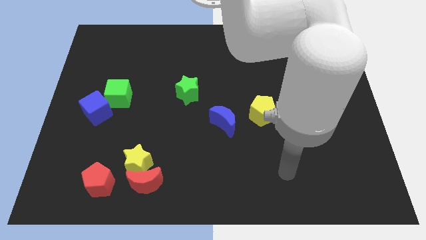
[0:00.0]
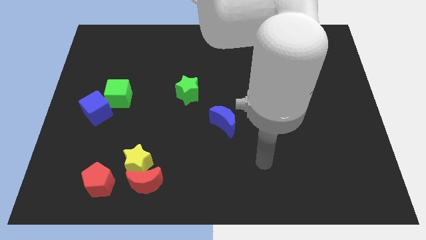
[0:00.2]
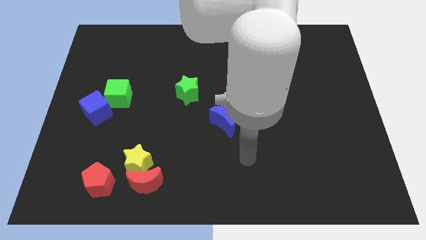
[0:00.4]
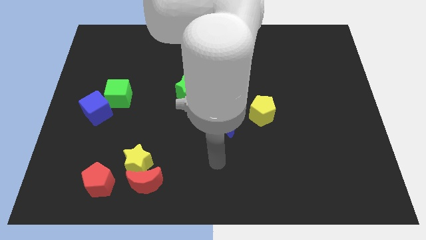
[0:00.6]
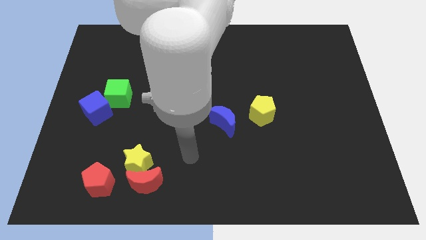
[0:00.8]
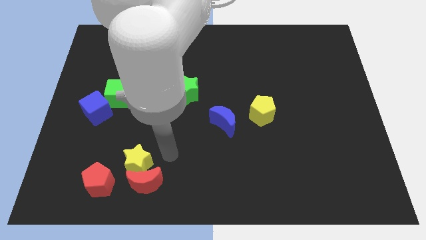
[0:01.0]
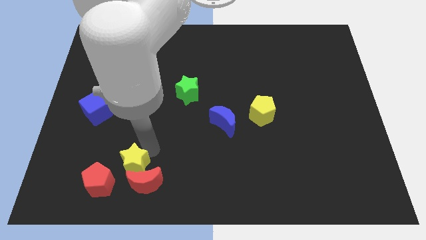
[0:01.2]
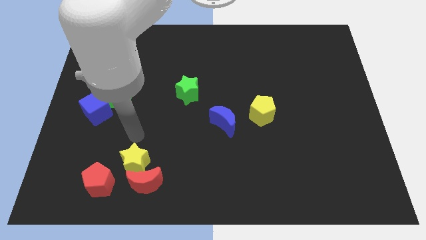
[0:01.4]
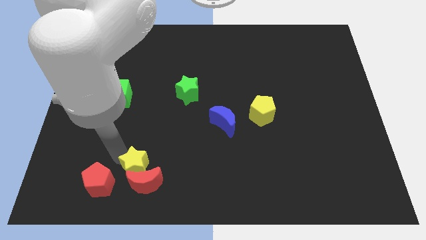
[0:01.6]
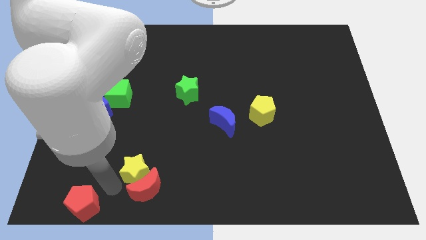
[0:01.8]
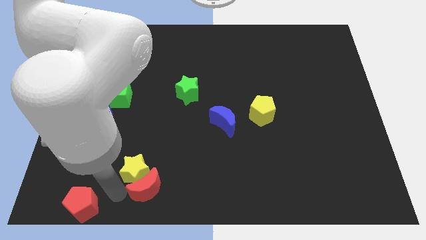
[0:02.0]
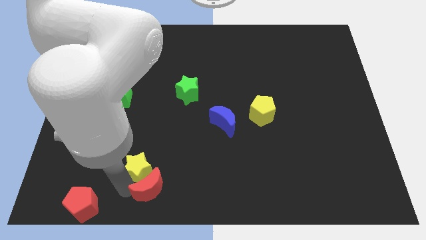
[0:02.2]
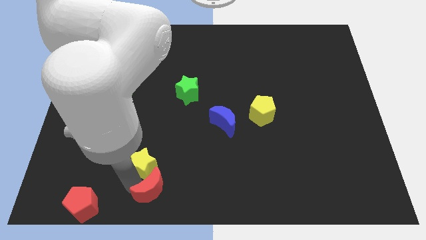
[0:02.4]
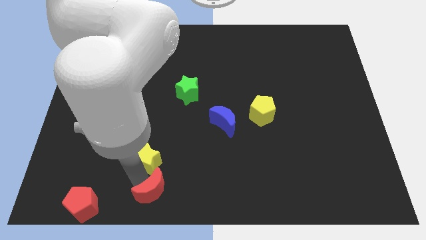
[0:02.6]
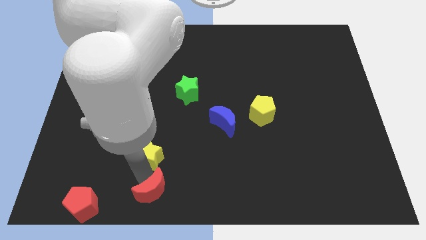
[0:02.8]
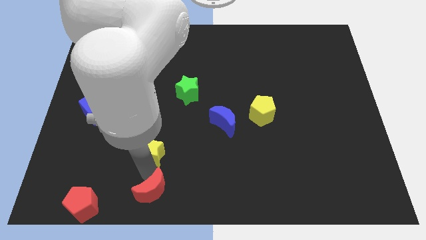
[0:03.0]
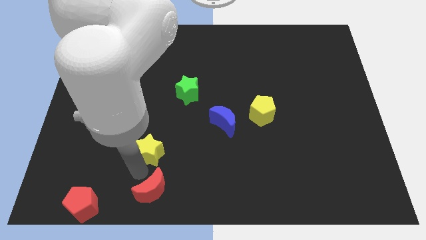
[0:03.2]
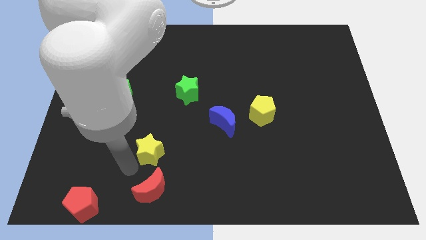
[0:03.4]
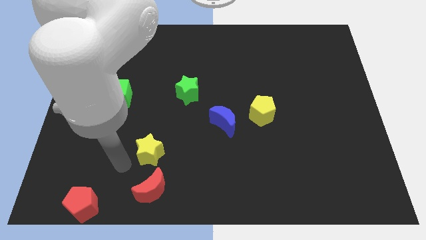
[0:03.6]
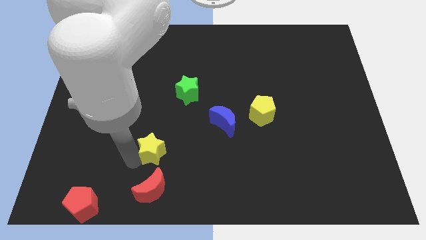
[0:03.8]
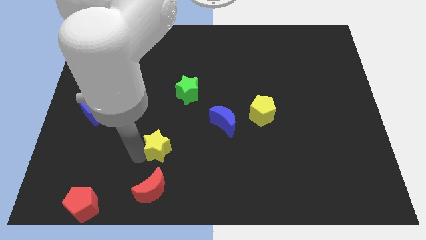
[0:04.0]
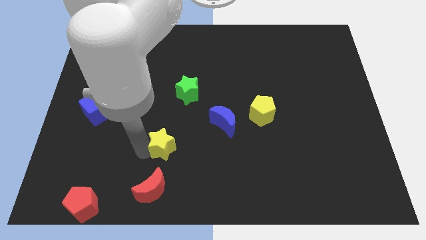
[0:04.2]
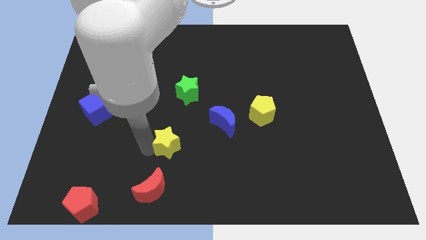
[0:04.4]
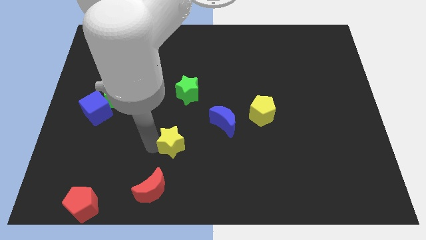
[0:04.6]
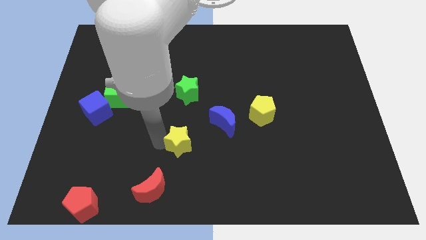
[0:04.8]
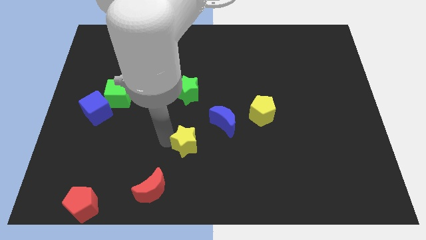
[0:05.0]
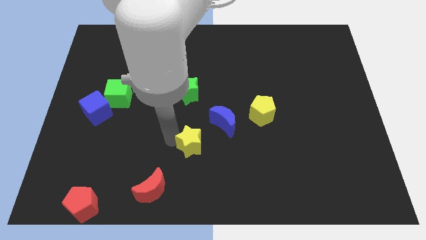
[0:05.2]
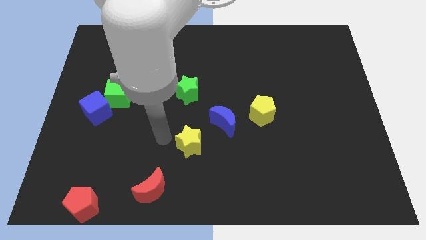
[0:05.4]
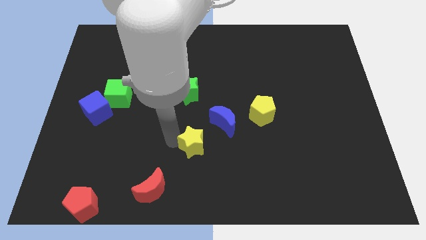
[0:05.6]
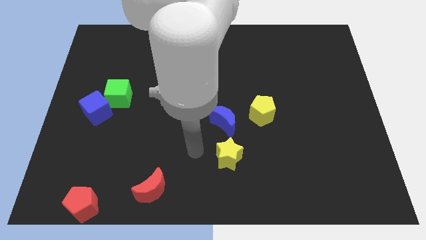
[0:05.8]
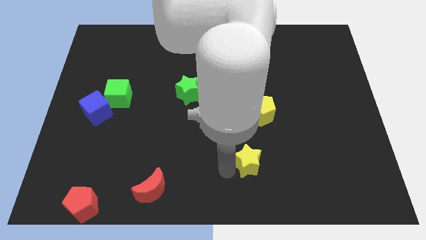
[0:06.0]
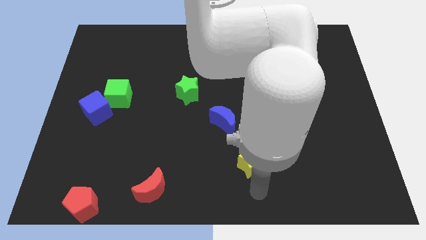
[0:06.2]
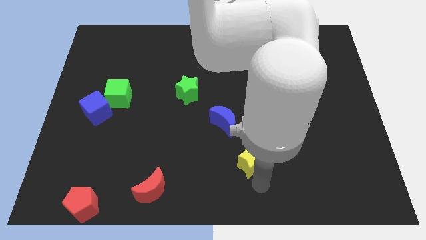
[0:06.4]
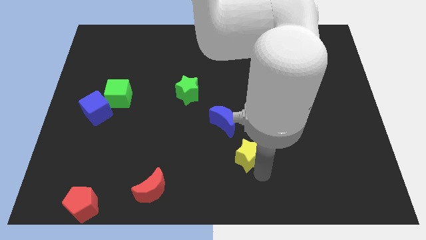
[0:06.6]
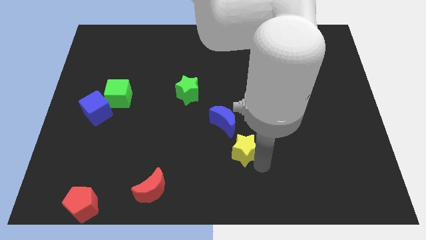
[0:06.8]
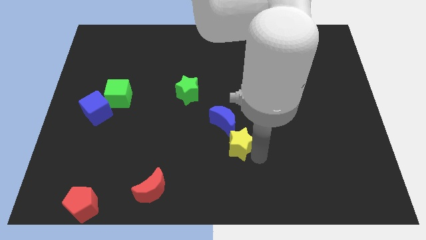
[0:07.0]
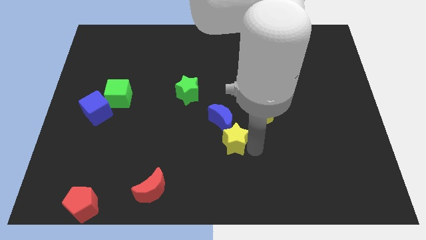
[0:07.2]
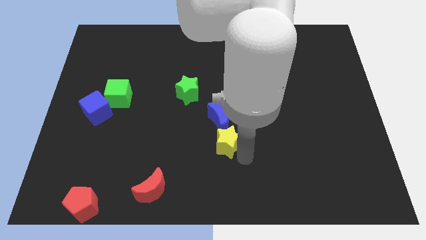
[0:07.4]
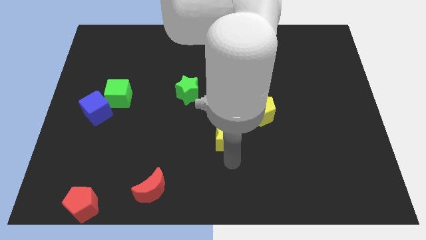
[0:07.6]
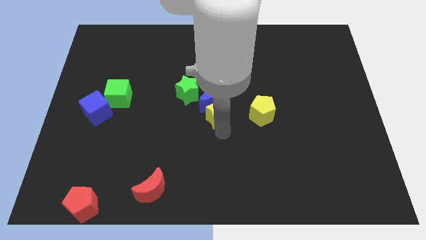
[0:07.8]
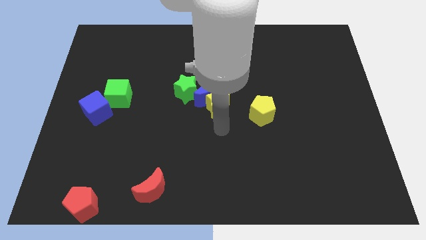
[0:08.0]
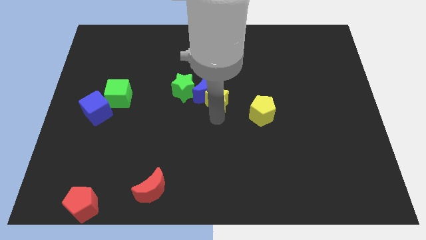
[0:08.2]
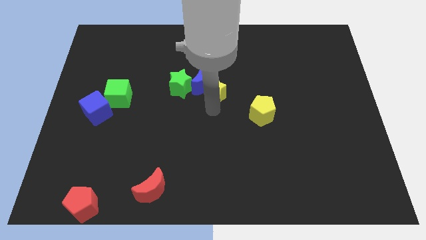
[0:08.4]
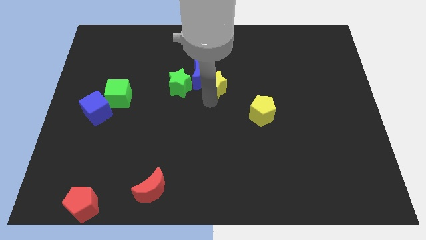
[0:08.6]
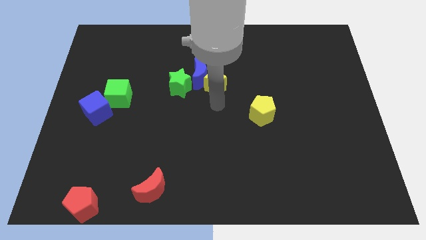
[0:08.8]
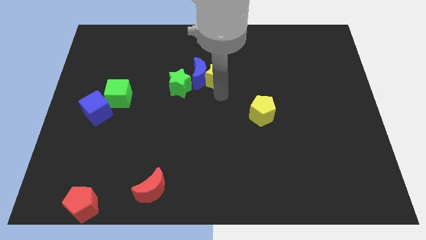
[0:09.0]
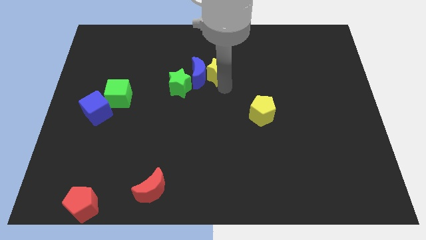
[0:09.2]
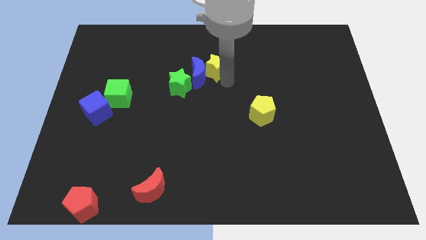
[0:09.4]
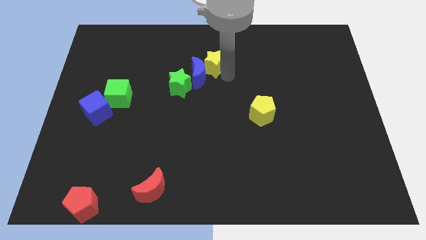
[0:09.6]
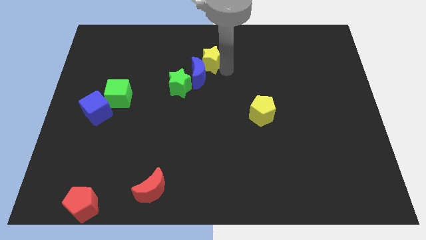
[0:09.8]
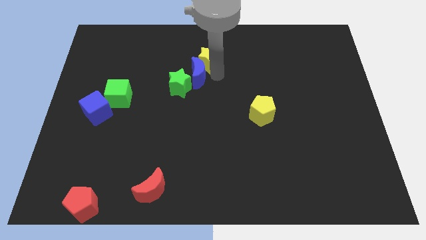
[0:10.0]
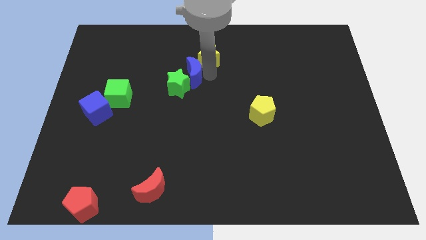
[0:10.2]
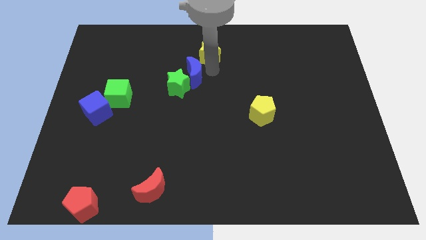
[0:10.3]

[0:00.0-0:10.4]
slide the yellow star to the top

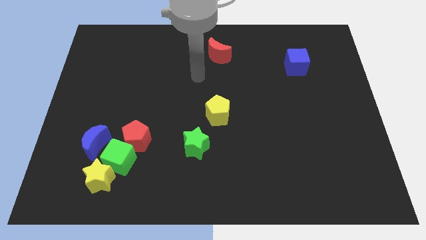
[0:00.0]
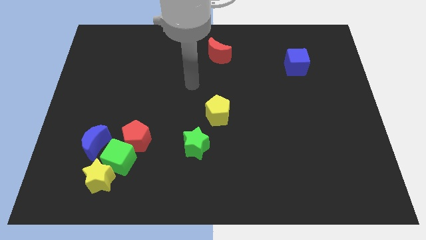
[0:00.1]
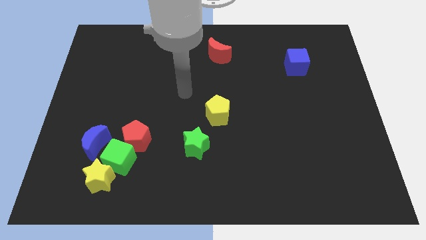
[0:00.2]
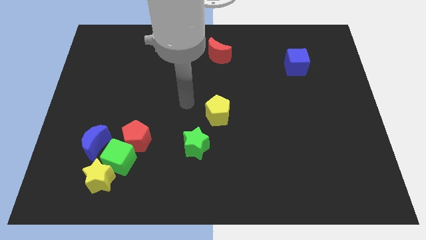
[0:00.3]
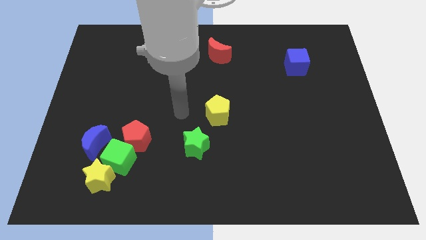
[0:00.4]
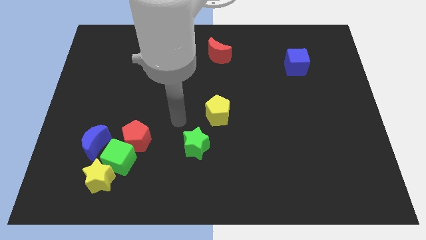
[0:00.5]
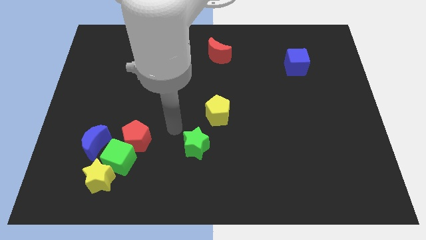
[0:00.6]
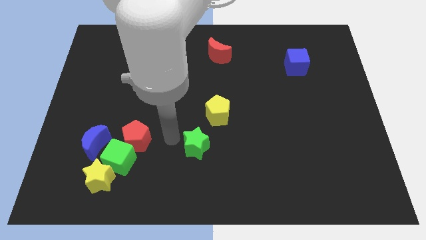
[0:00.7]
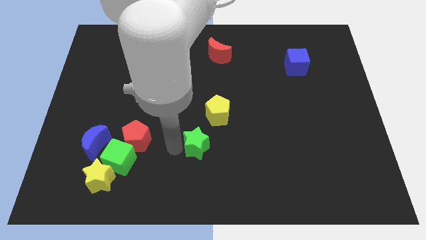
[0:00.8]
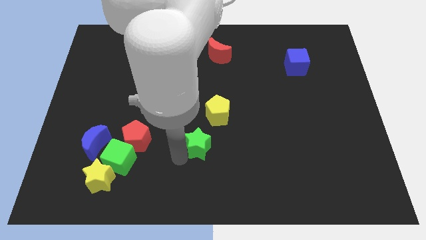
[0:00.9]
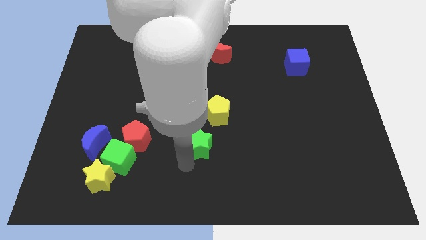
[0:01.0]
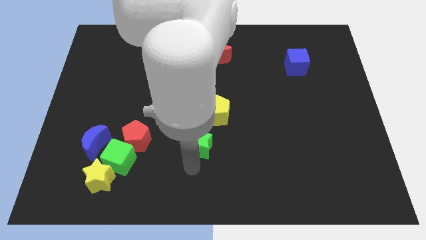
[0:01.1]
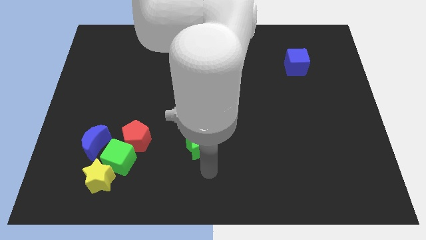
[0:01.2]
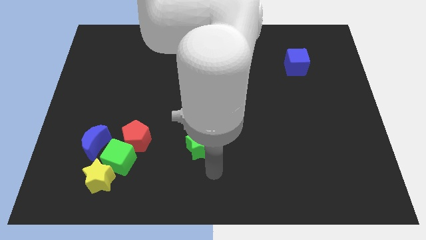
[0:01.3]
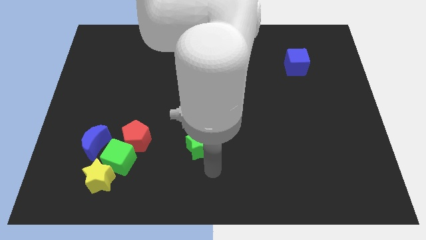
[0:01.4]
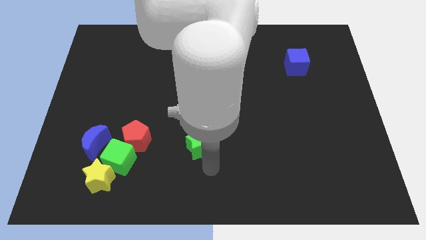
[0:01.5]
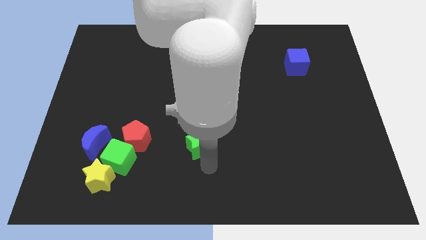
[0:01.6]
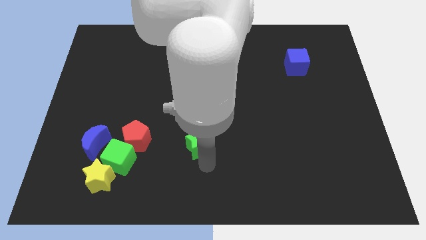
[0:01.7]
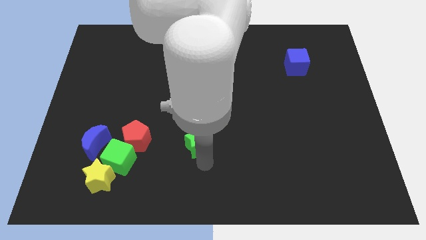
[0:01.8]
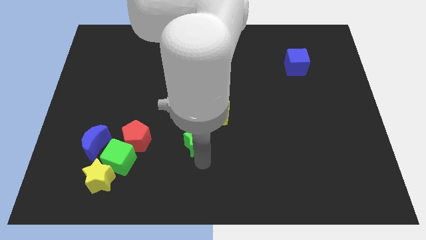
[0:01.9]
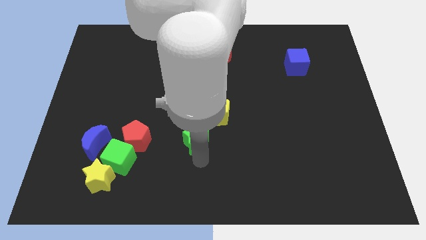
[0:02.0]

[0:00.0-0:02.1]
push the green star to the center

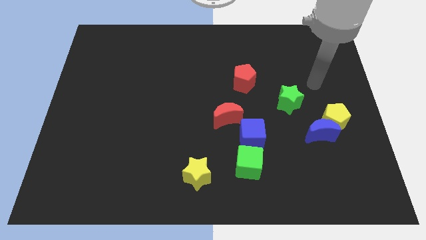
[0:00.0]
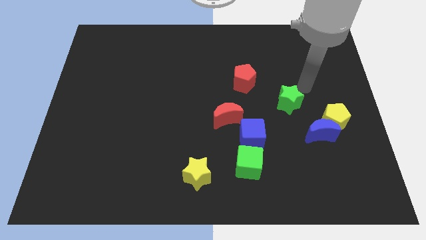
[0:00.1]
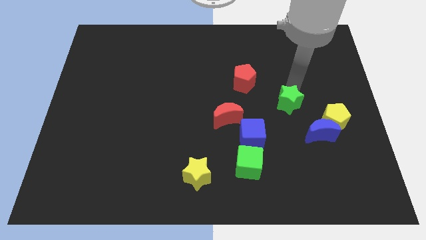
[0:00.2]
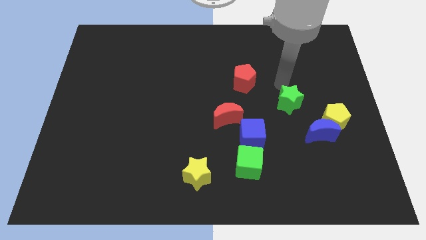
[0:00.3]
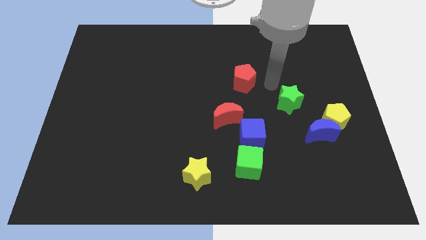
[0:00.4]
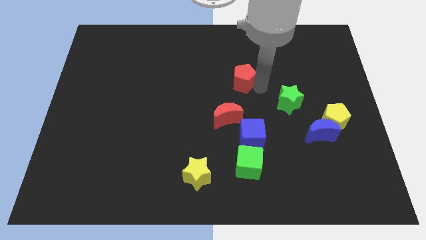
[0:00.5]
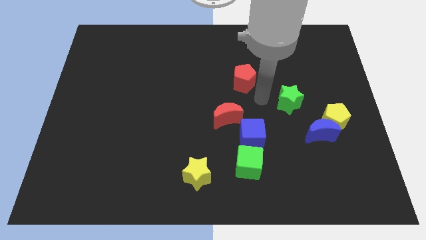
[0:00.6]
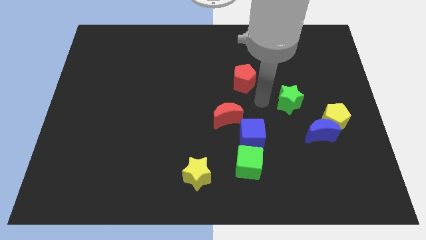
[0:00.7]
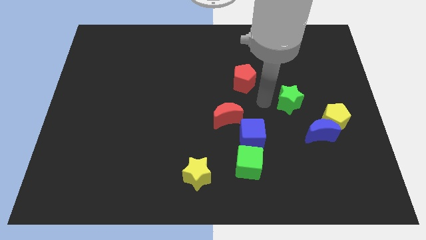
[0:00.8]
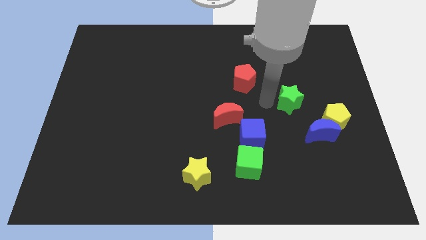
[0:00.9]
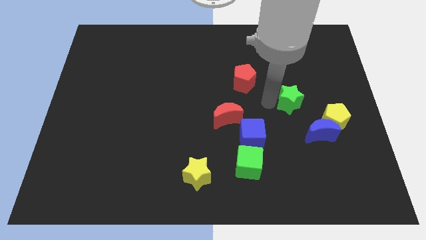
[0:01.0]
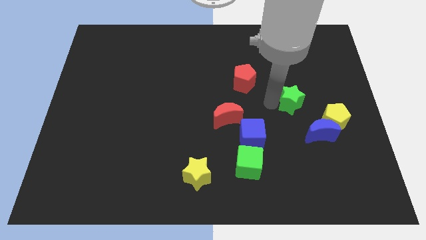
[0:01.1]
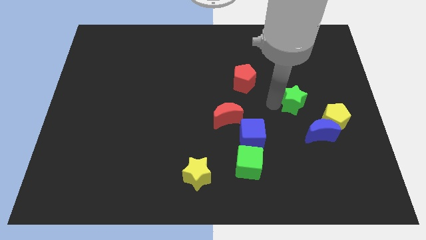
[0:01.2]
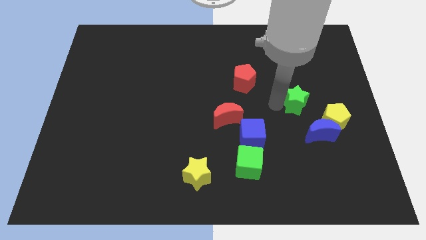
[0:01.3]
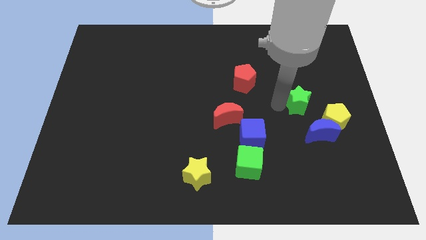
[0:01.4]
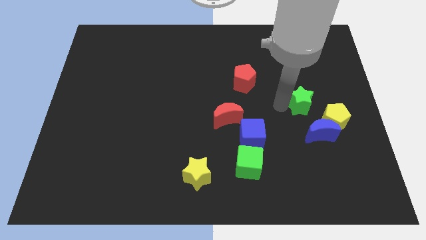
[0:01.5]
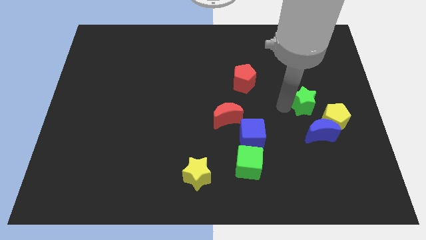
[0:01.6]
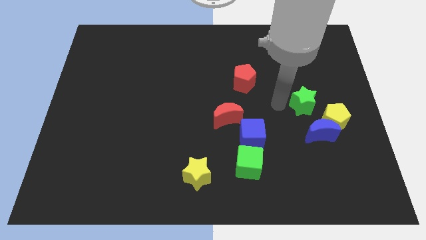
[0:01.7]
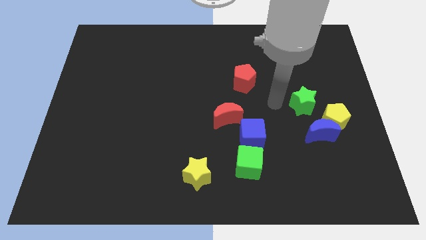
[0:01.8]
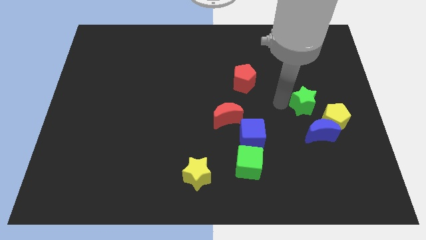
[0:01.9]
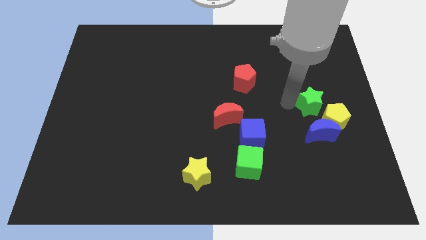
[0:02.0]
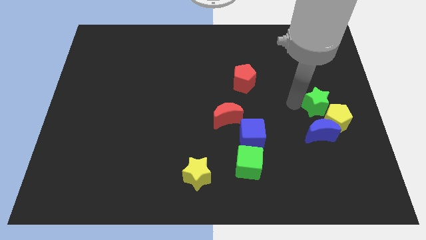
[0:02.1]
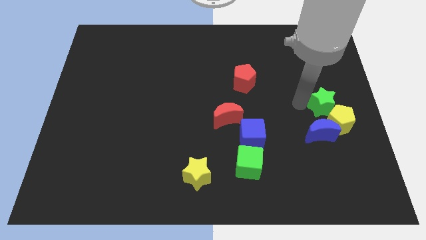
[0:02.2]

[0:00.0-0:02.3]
push the green star to the center right
